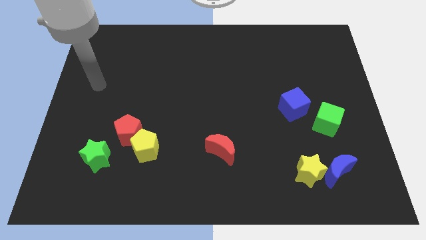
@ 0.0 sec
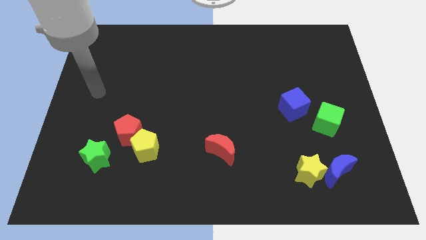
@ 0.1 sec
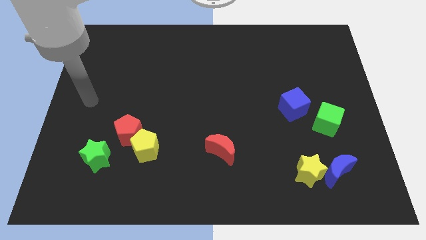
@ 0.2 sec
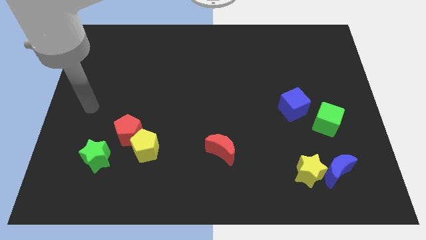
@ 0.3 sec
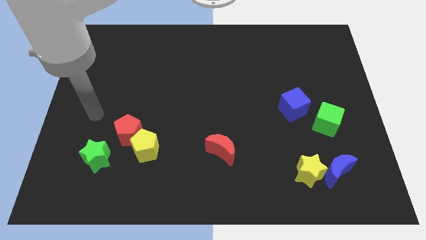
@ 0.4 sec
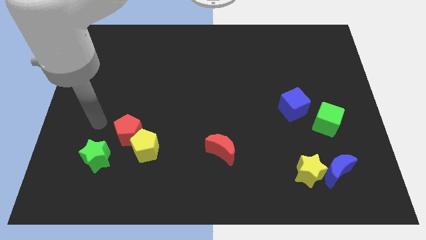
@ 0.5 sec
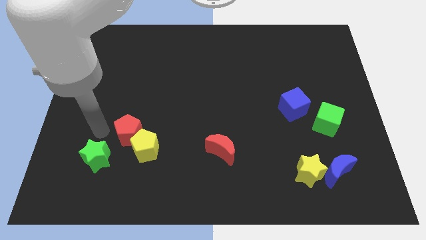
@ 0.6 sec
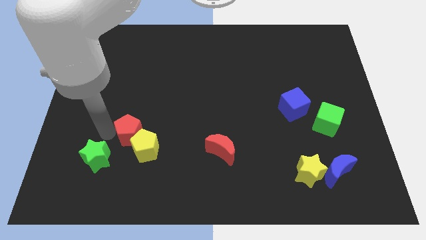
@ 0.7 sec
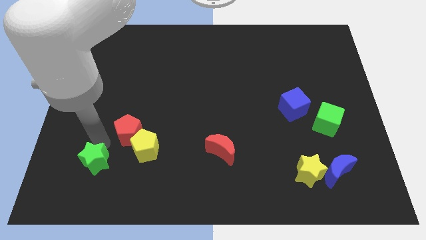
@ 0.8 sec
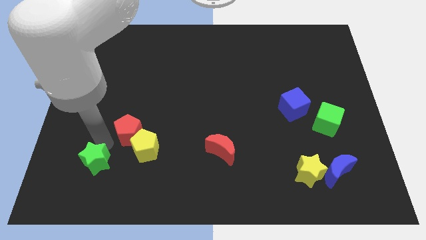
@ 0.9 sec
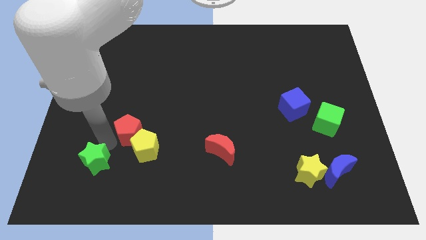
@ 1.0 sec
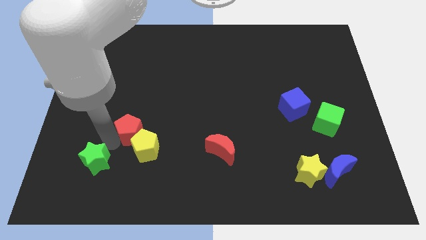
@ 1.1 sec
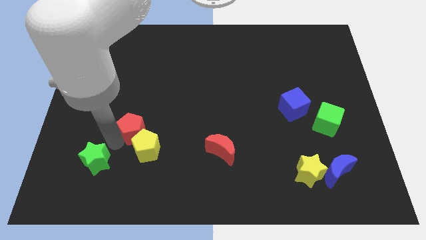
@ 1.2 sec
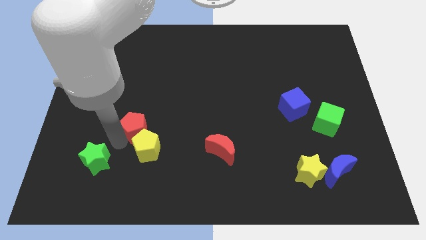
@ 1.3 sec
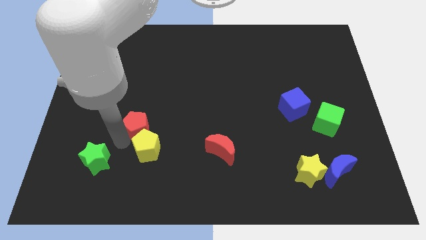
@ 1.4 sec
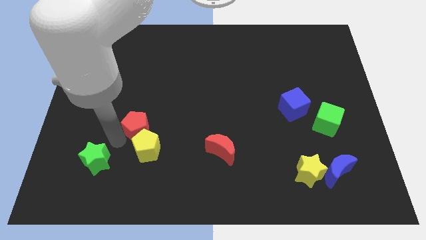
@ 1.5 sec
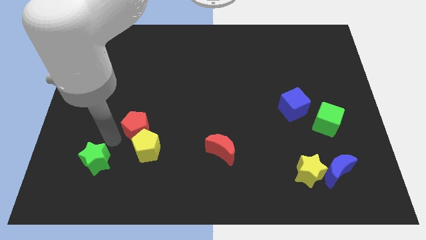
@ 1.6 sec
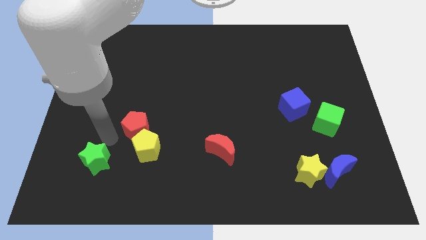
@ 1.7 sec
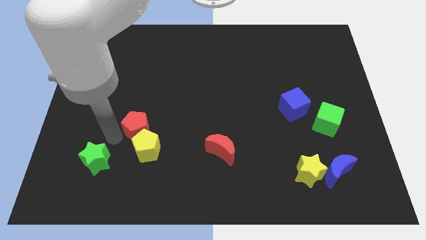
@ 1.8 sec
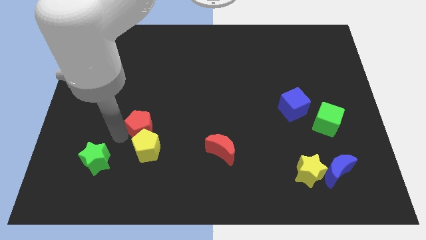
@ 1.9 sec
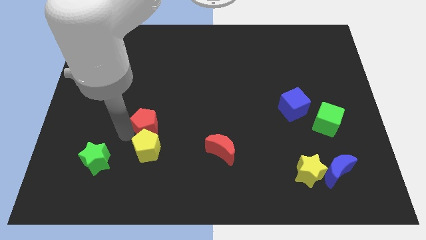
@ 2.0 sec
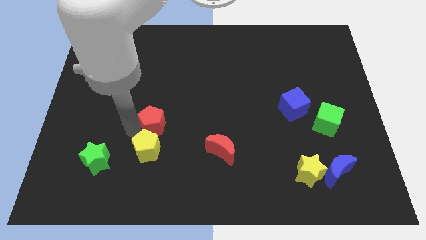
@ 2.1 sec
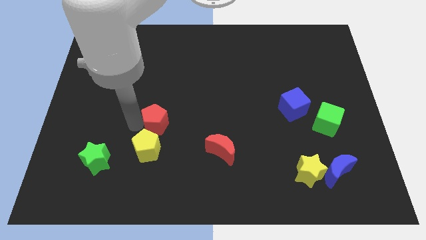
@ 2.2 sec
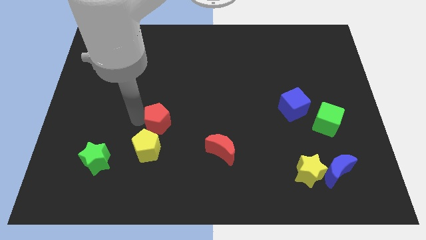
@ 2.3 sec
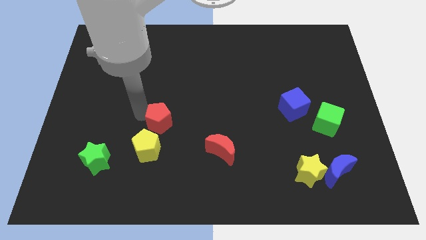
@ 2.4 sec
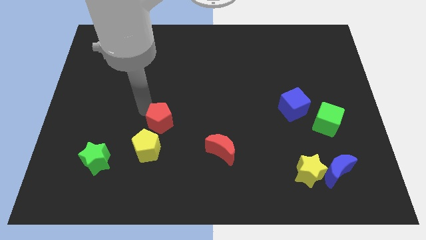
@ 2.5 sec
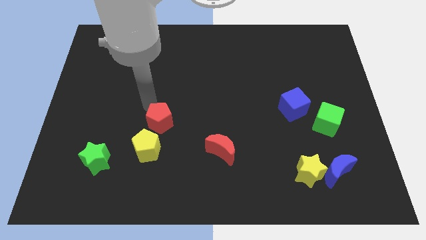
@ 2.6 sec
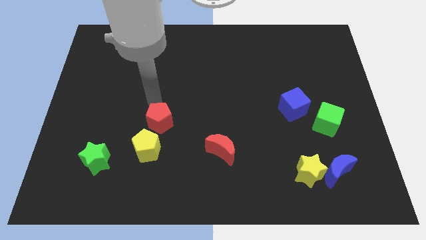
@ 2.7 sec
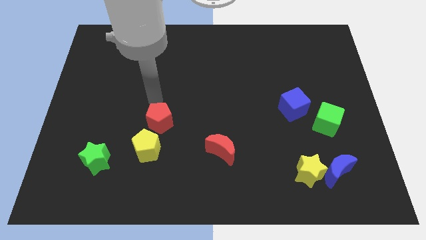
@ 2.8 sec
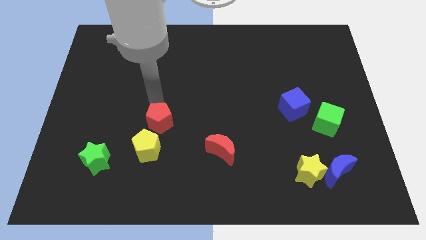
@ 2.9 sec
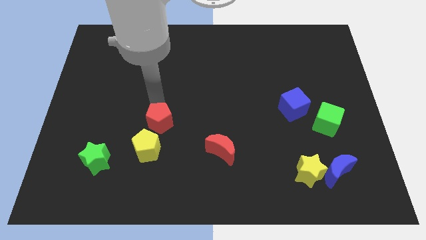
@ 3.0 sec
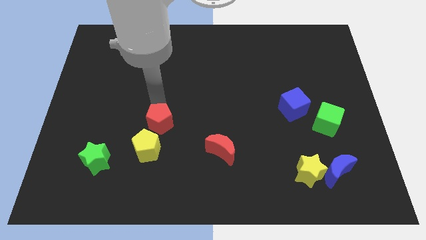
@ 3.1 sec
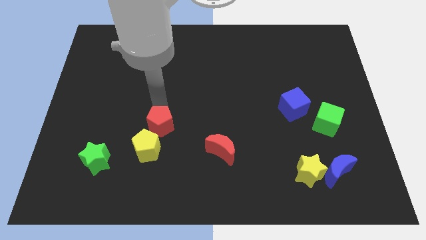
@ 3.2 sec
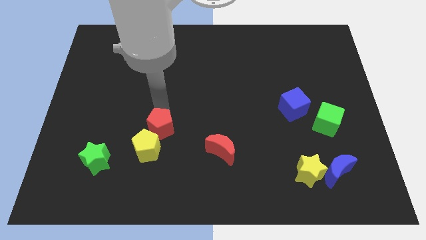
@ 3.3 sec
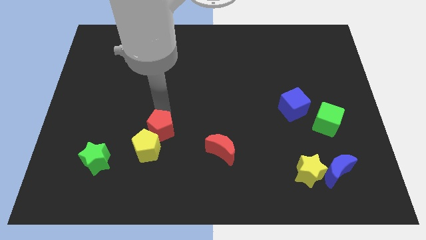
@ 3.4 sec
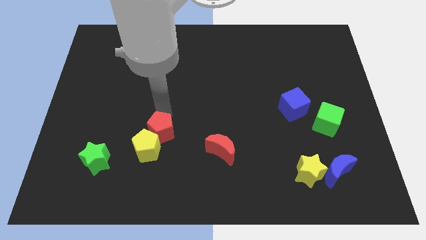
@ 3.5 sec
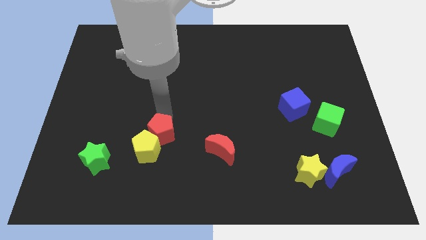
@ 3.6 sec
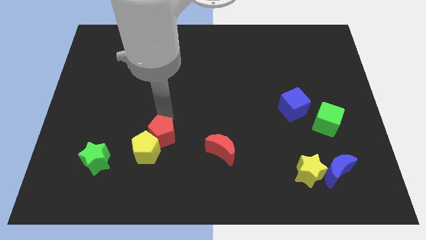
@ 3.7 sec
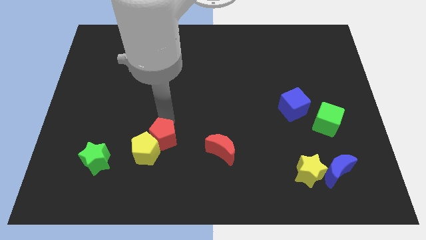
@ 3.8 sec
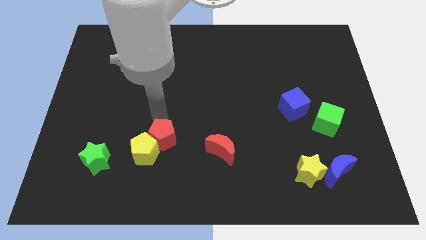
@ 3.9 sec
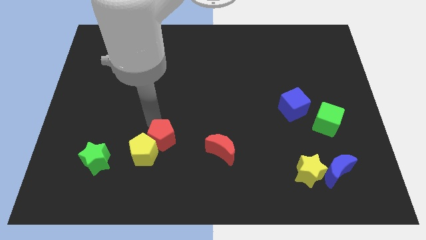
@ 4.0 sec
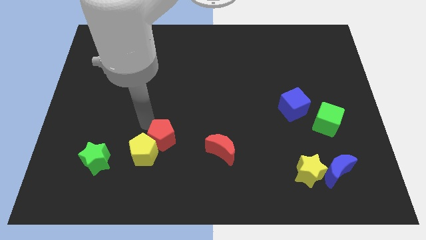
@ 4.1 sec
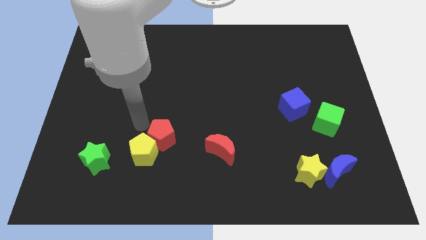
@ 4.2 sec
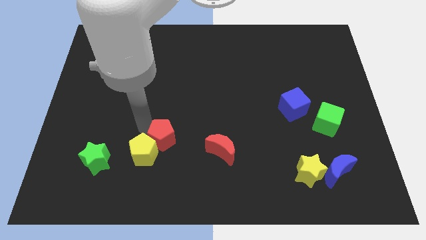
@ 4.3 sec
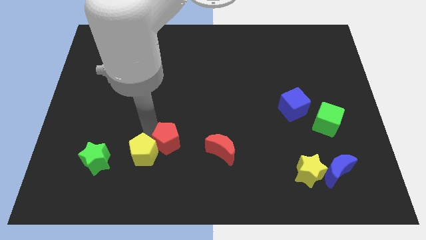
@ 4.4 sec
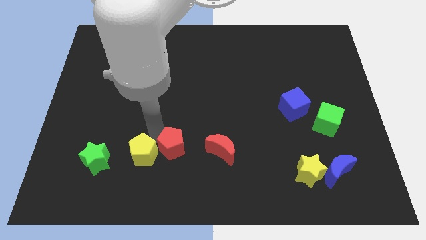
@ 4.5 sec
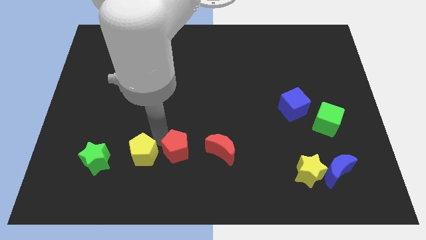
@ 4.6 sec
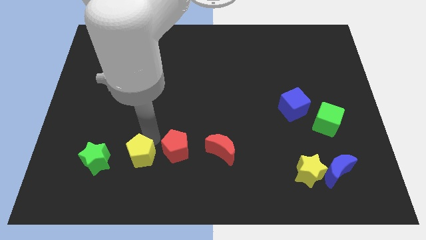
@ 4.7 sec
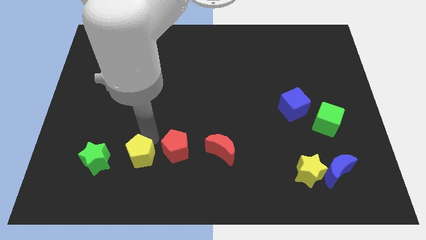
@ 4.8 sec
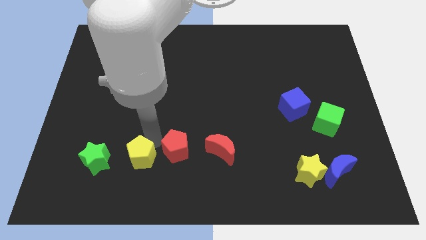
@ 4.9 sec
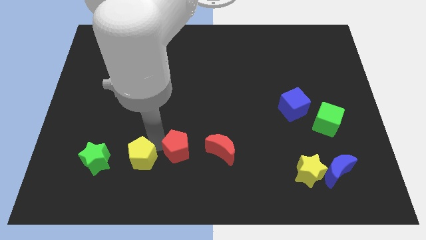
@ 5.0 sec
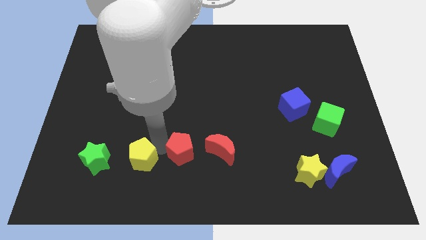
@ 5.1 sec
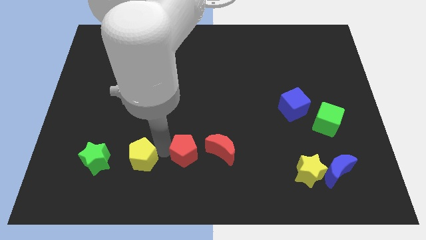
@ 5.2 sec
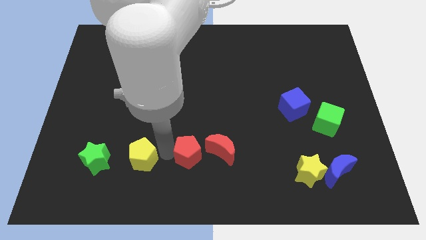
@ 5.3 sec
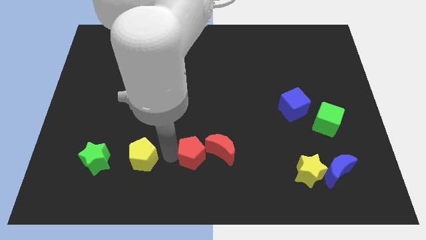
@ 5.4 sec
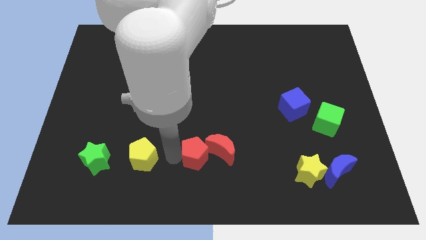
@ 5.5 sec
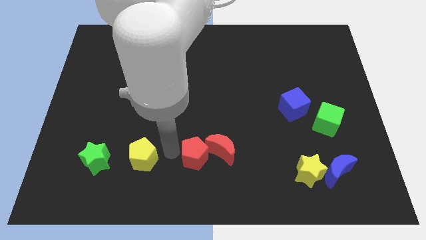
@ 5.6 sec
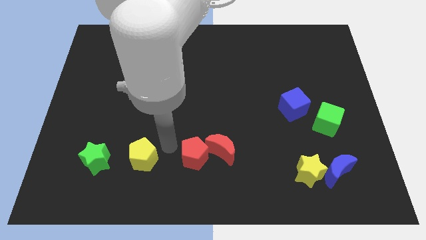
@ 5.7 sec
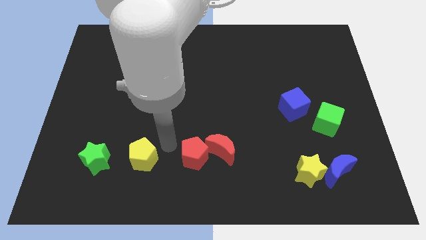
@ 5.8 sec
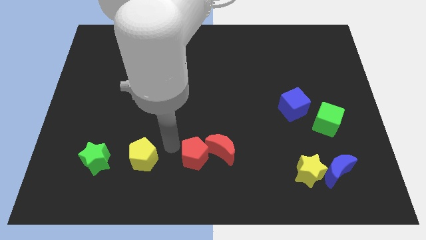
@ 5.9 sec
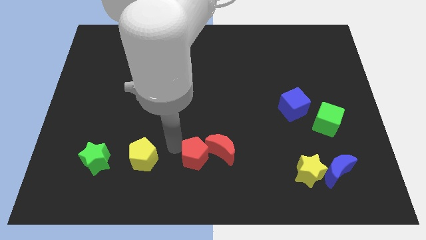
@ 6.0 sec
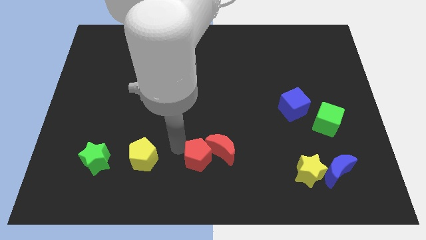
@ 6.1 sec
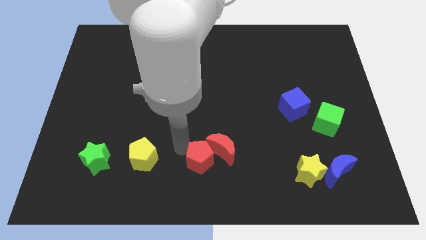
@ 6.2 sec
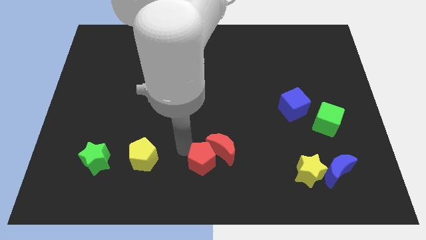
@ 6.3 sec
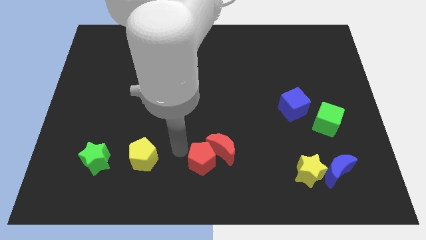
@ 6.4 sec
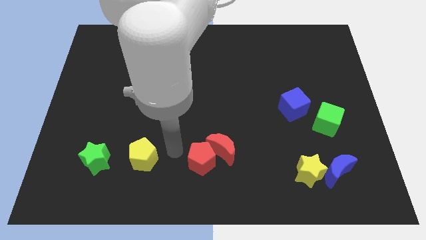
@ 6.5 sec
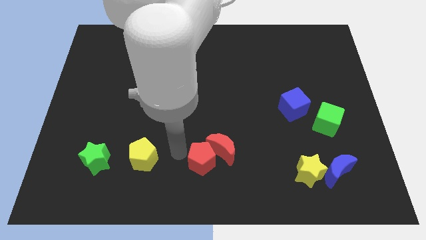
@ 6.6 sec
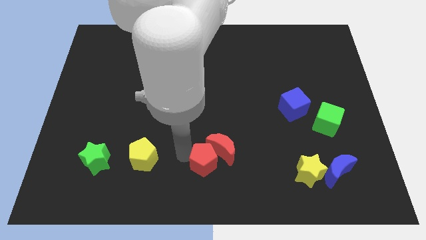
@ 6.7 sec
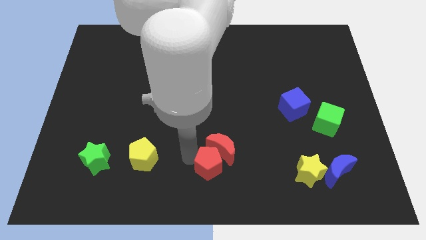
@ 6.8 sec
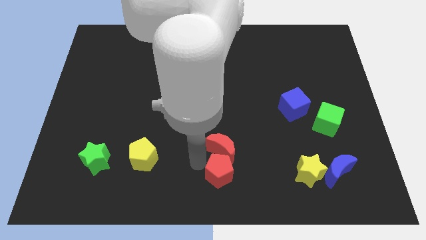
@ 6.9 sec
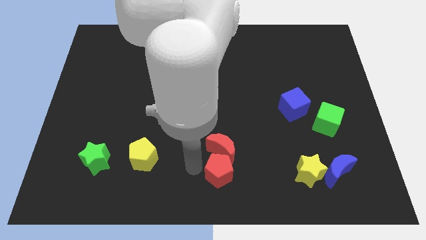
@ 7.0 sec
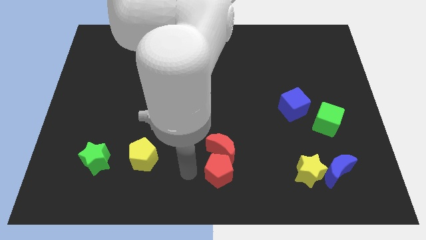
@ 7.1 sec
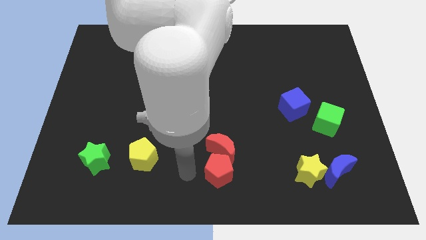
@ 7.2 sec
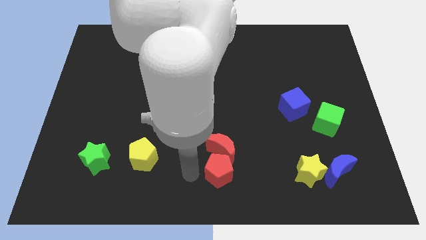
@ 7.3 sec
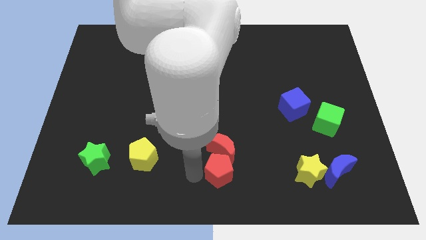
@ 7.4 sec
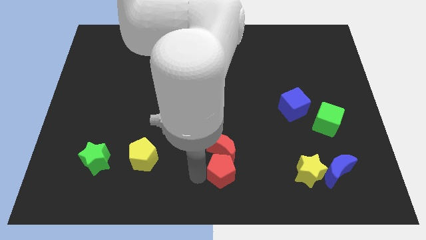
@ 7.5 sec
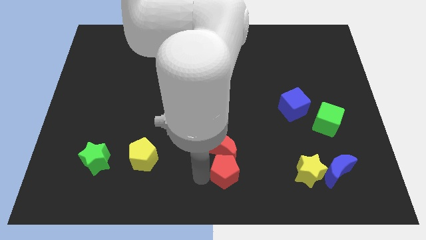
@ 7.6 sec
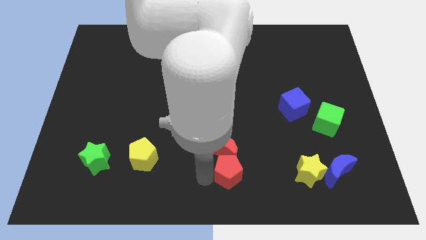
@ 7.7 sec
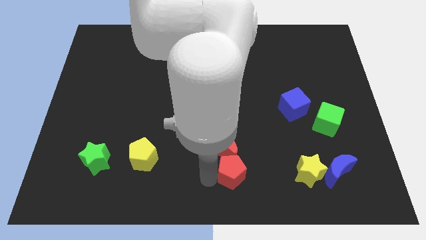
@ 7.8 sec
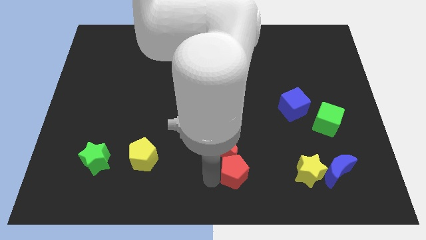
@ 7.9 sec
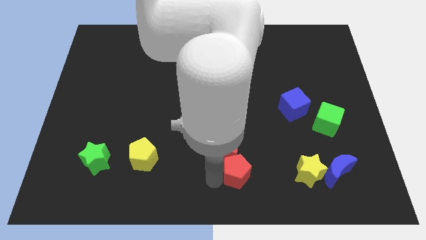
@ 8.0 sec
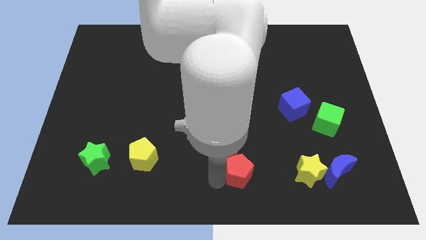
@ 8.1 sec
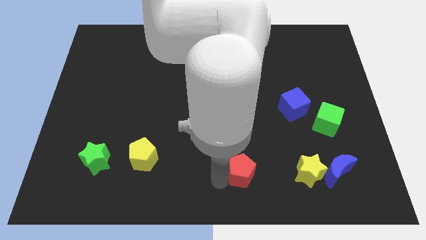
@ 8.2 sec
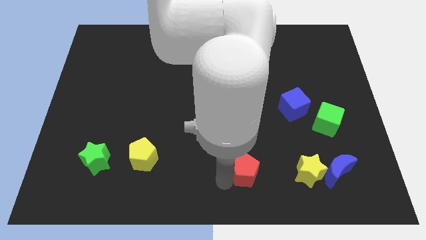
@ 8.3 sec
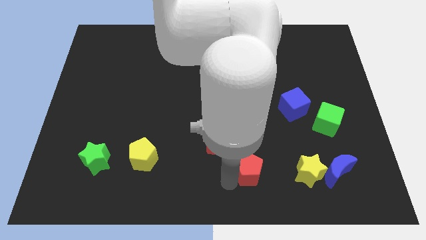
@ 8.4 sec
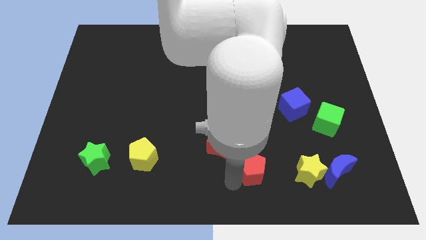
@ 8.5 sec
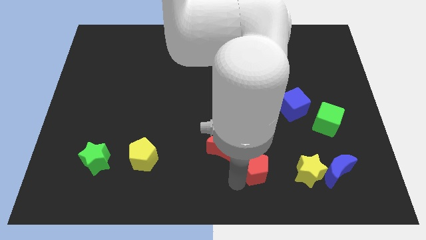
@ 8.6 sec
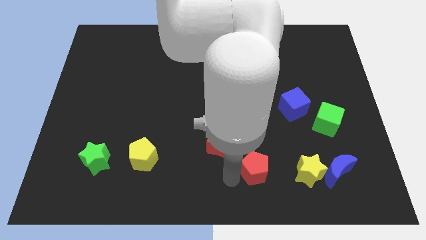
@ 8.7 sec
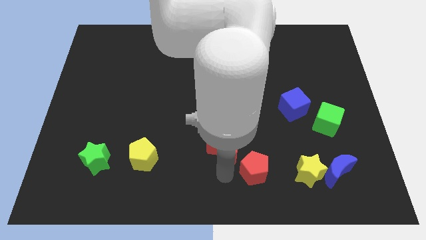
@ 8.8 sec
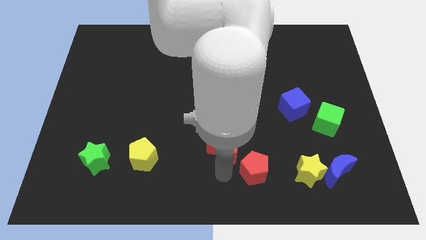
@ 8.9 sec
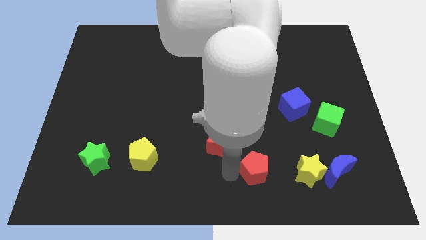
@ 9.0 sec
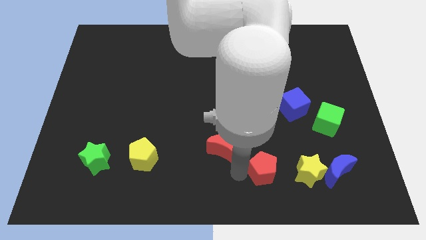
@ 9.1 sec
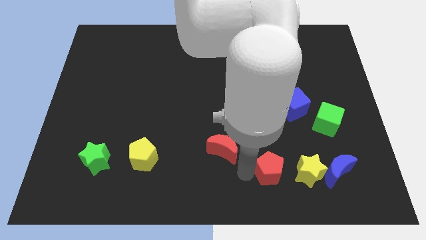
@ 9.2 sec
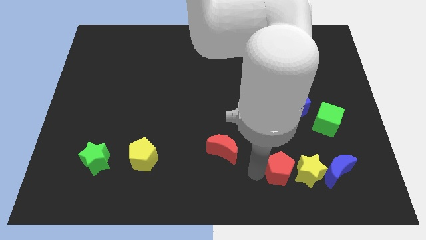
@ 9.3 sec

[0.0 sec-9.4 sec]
push the red pentagon to the yellow star
